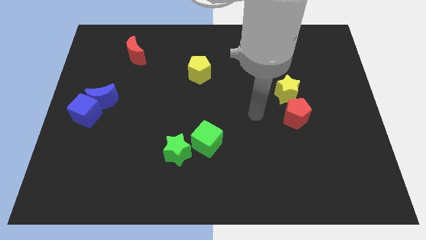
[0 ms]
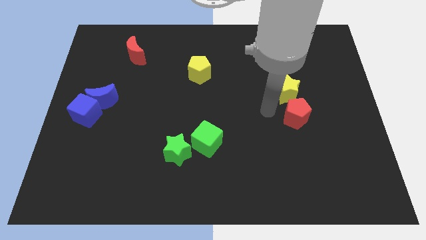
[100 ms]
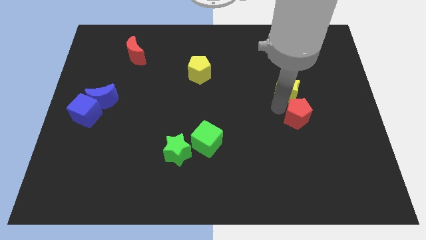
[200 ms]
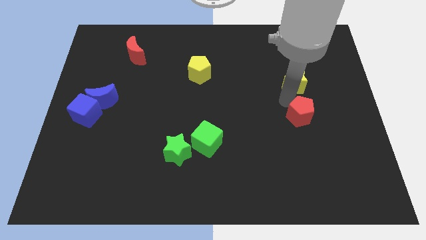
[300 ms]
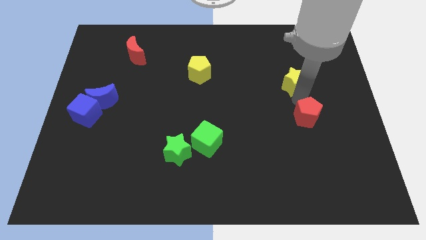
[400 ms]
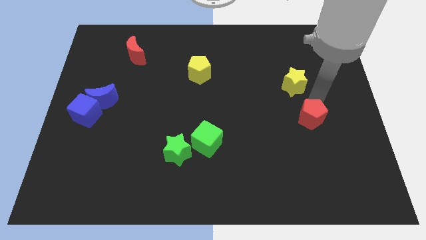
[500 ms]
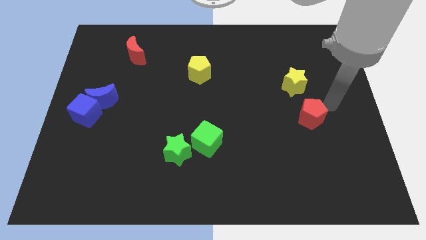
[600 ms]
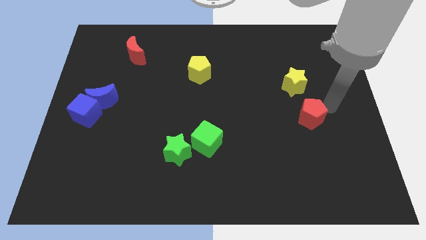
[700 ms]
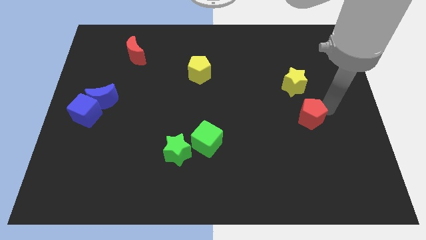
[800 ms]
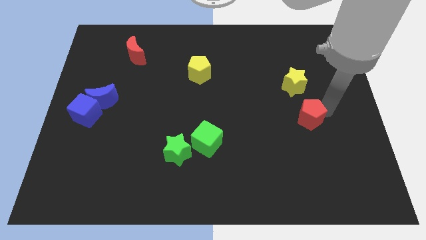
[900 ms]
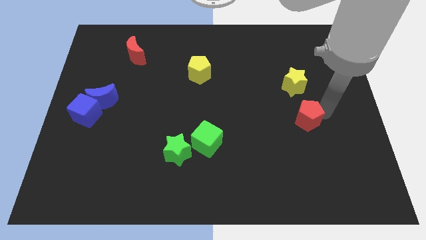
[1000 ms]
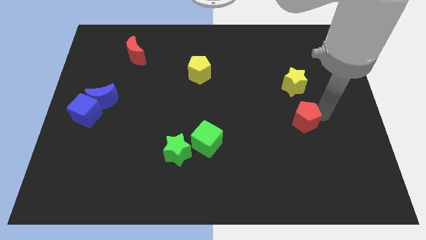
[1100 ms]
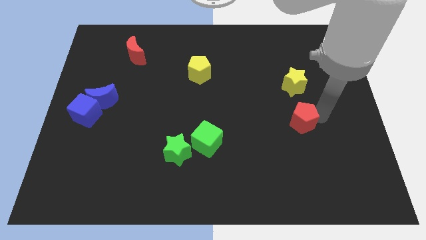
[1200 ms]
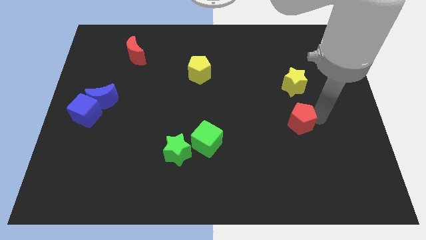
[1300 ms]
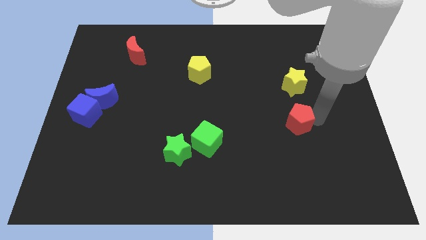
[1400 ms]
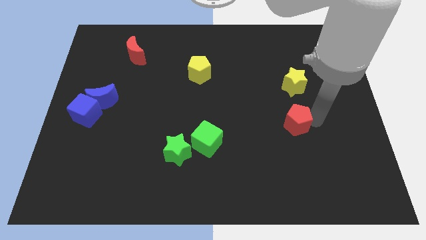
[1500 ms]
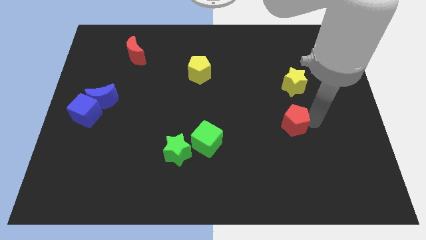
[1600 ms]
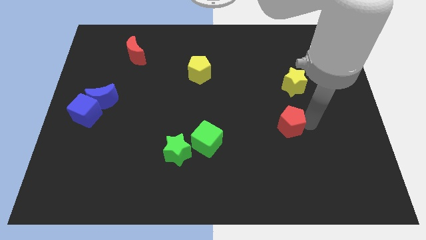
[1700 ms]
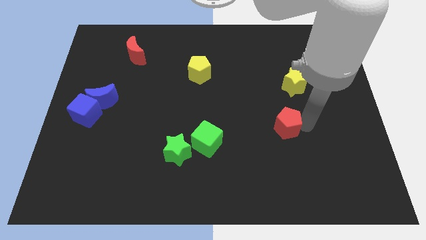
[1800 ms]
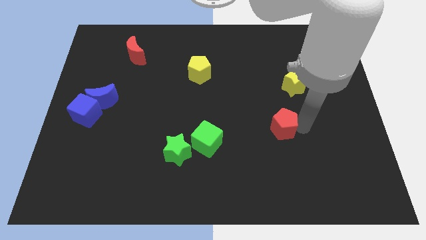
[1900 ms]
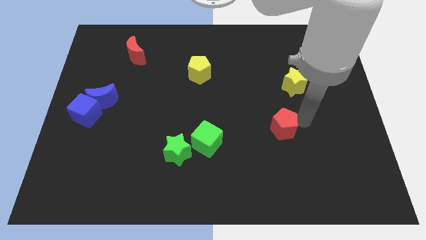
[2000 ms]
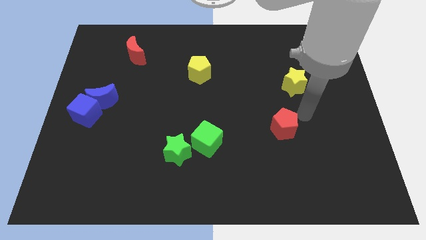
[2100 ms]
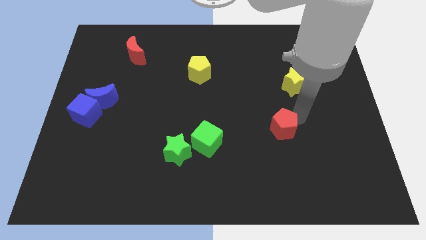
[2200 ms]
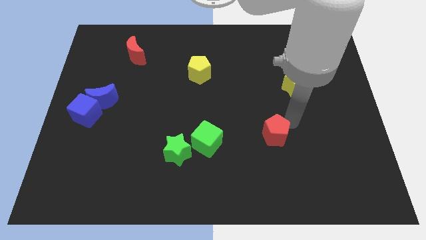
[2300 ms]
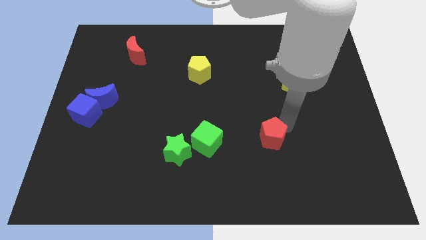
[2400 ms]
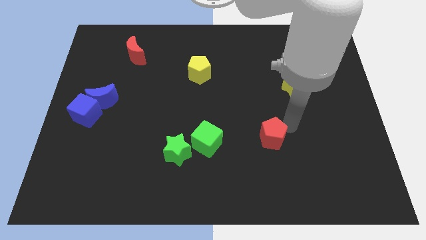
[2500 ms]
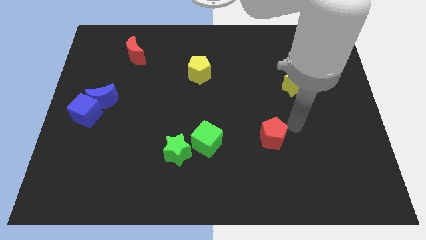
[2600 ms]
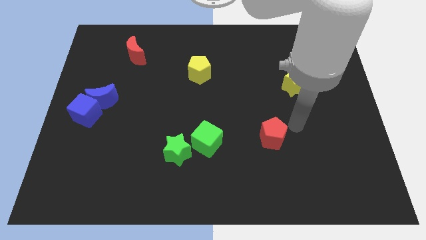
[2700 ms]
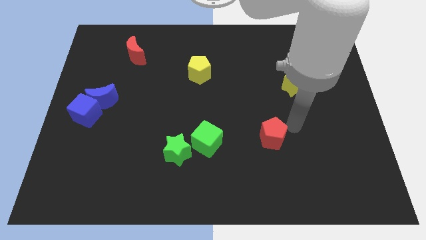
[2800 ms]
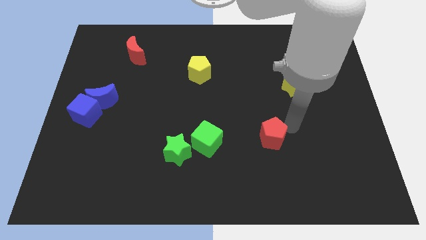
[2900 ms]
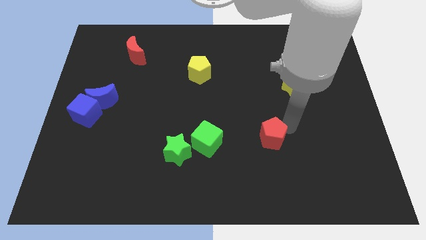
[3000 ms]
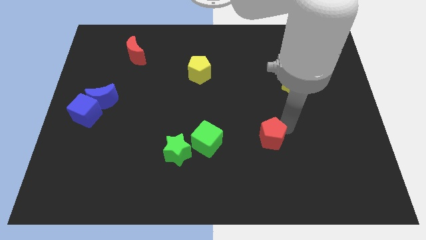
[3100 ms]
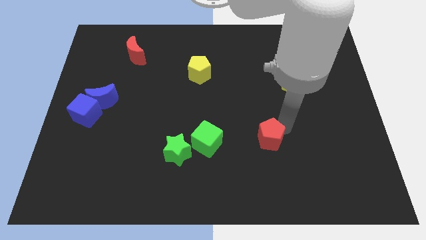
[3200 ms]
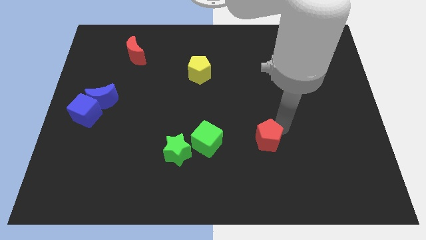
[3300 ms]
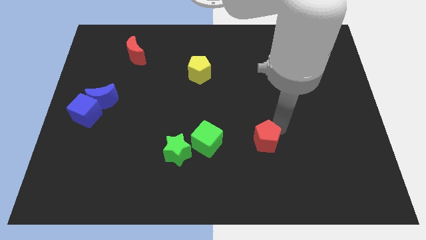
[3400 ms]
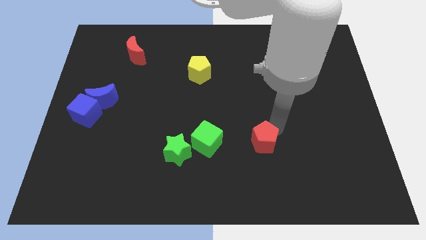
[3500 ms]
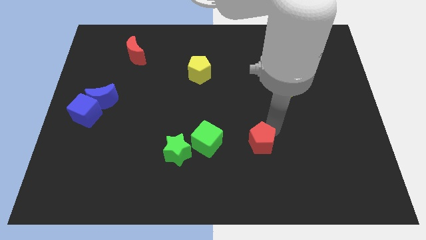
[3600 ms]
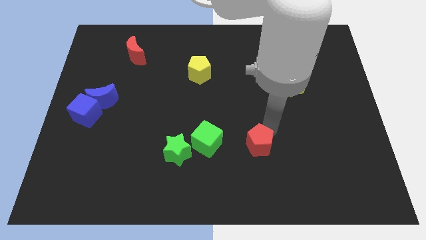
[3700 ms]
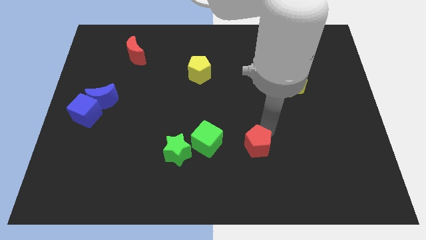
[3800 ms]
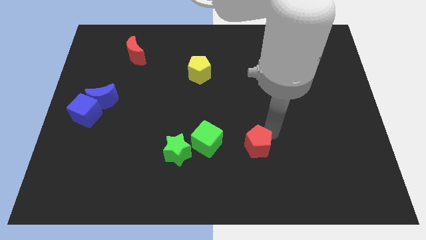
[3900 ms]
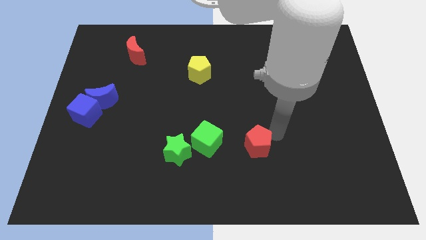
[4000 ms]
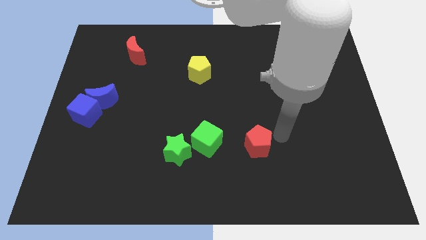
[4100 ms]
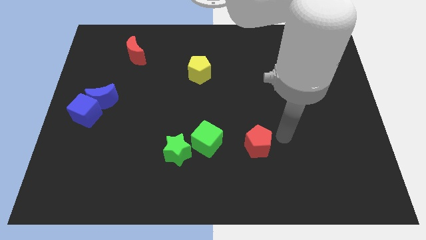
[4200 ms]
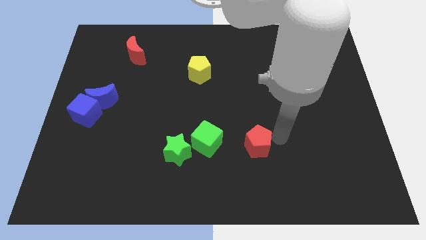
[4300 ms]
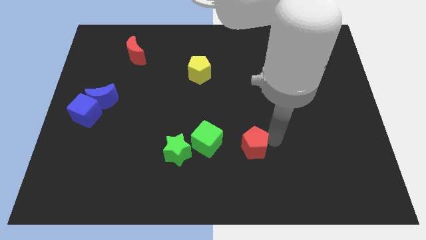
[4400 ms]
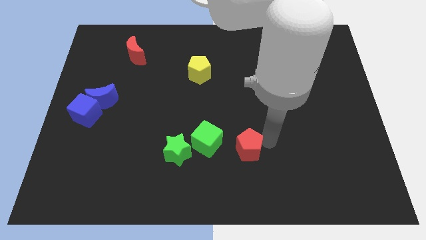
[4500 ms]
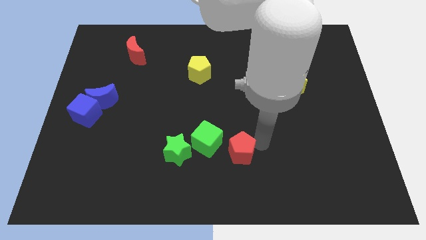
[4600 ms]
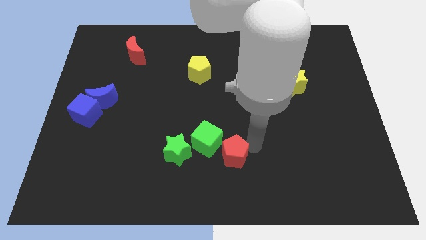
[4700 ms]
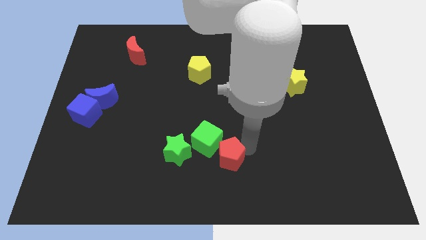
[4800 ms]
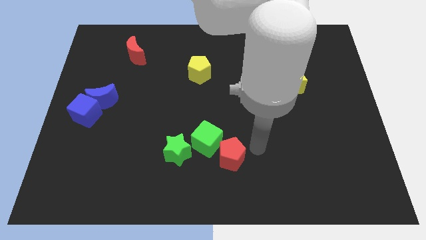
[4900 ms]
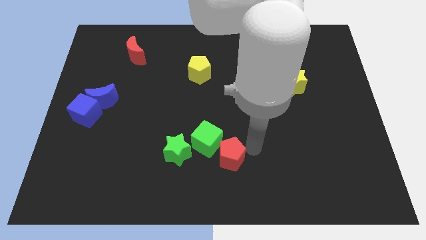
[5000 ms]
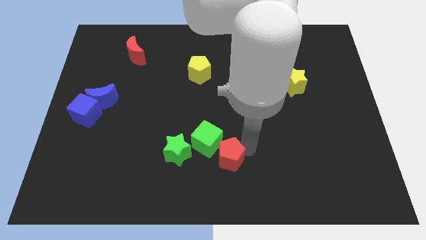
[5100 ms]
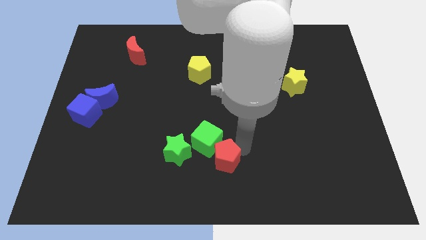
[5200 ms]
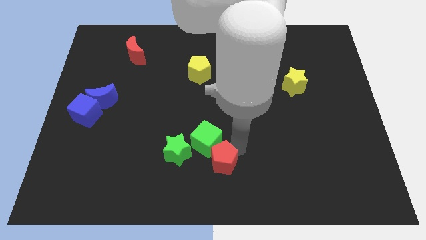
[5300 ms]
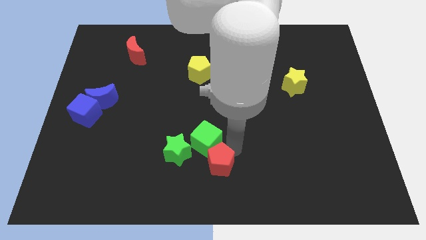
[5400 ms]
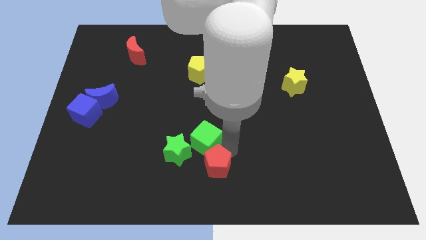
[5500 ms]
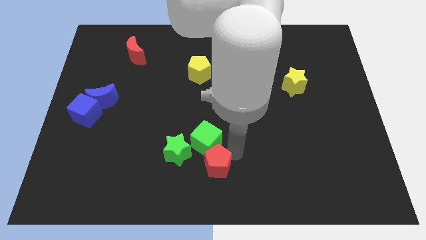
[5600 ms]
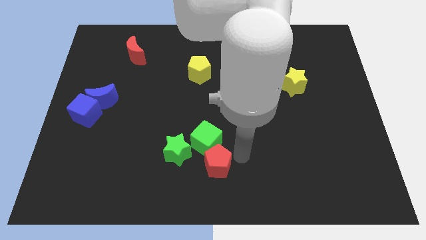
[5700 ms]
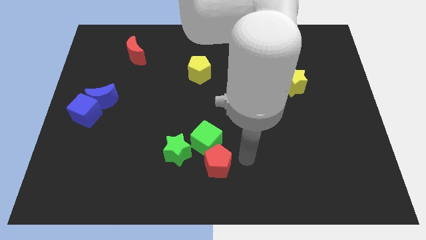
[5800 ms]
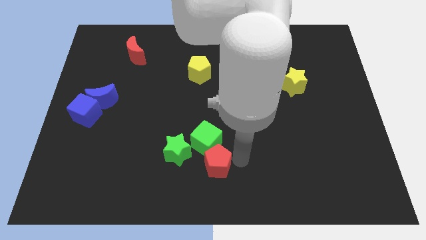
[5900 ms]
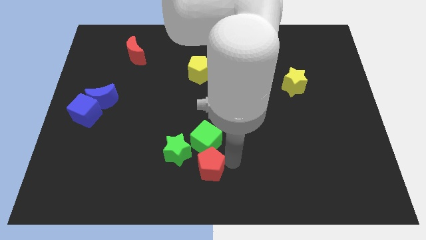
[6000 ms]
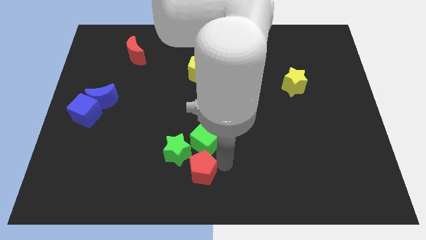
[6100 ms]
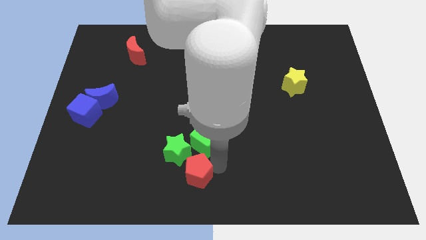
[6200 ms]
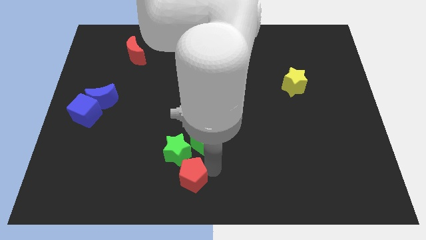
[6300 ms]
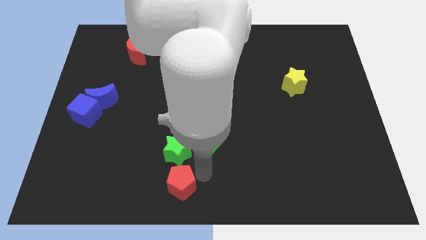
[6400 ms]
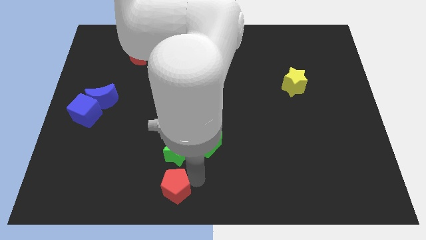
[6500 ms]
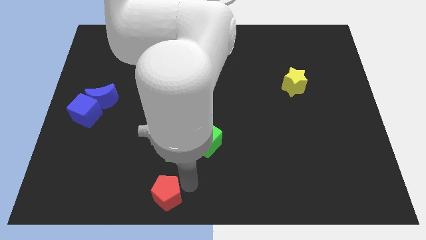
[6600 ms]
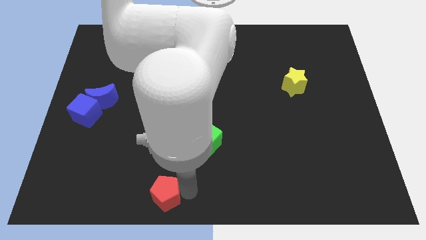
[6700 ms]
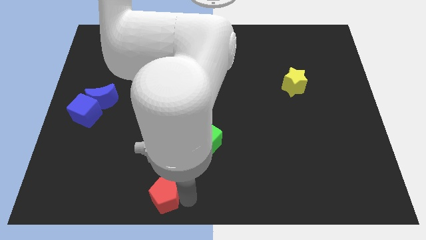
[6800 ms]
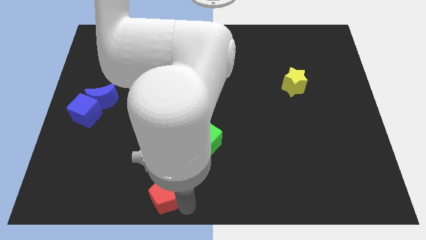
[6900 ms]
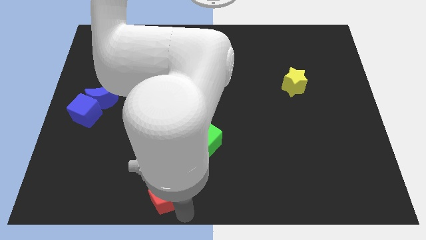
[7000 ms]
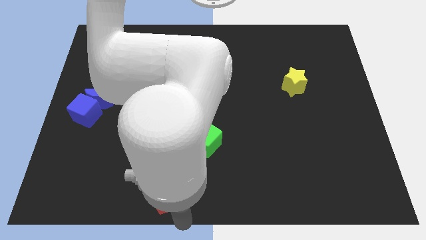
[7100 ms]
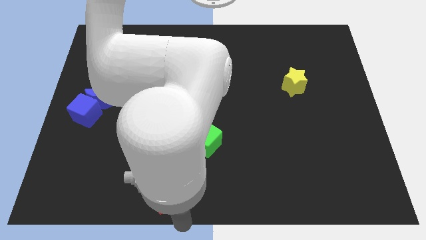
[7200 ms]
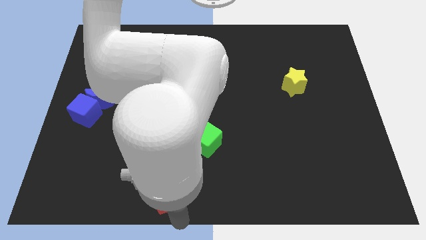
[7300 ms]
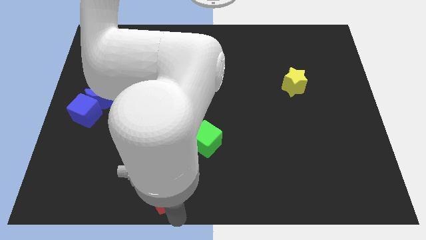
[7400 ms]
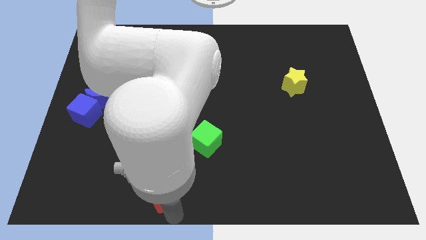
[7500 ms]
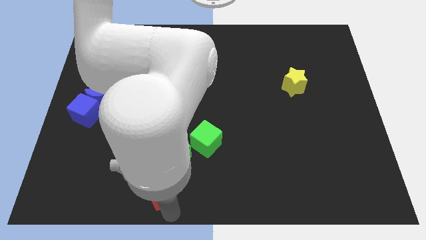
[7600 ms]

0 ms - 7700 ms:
move the red pentagon diagonally down and to the left of the green star

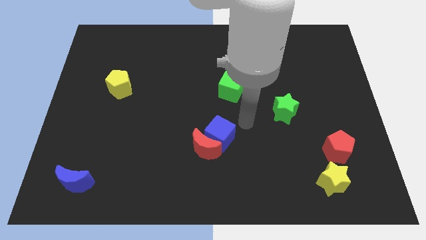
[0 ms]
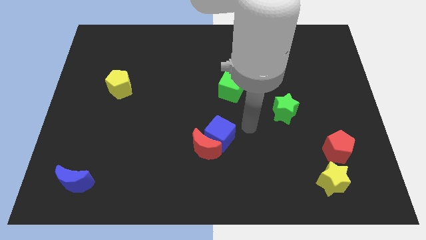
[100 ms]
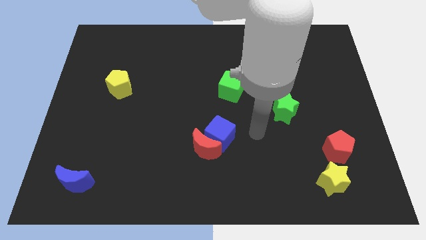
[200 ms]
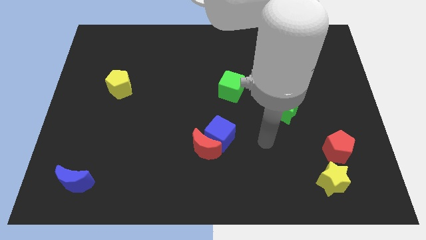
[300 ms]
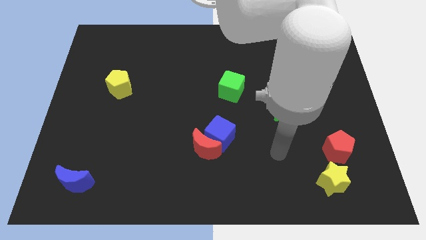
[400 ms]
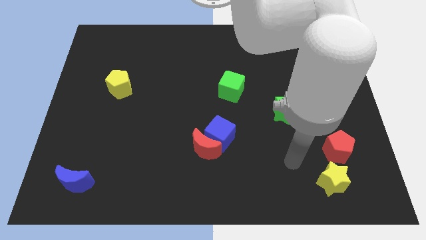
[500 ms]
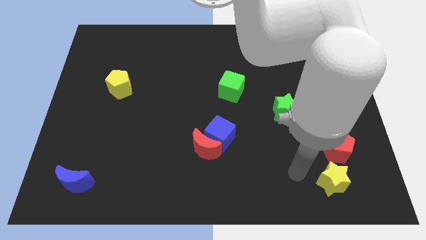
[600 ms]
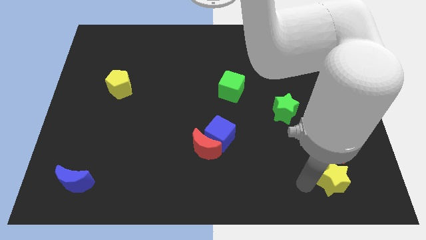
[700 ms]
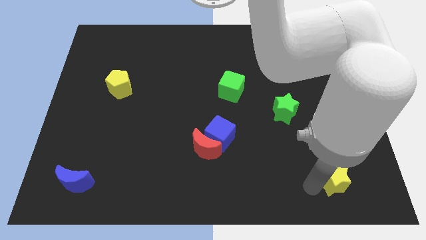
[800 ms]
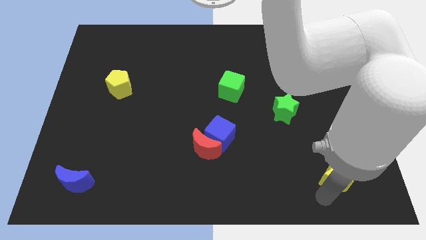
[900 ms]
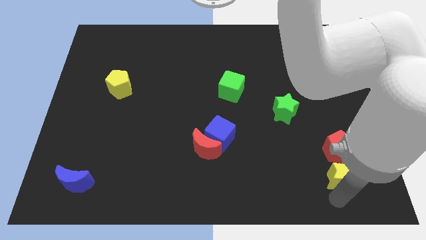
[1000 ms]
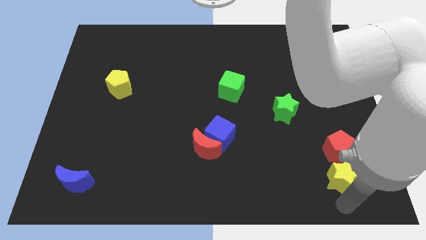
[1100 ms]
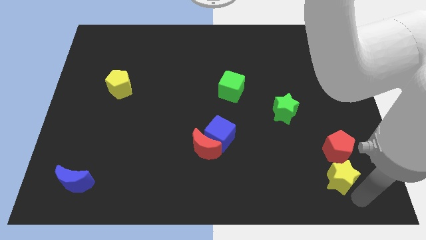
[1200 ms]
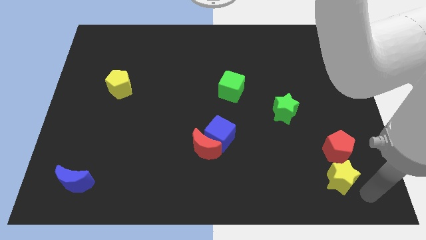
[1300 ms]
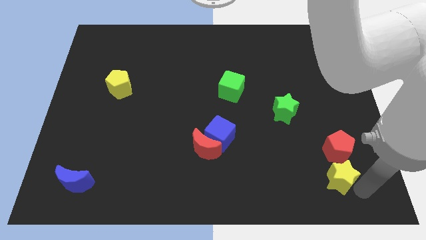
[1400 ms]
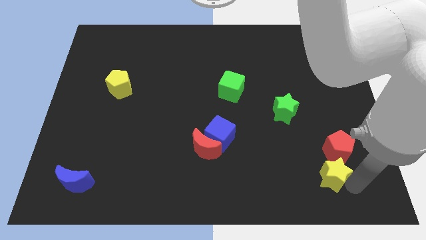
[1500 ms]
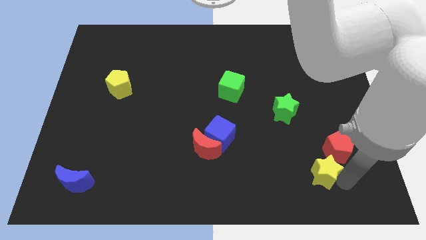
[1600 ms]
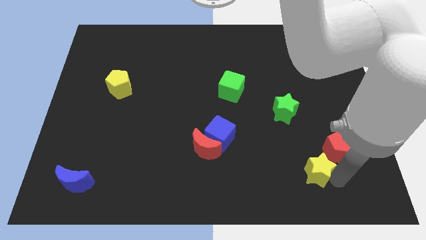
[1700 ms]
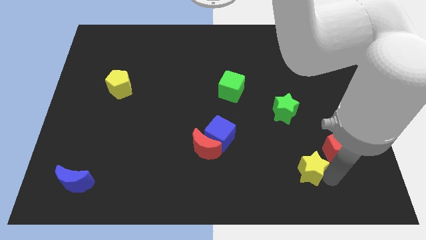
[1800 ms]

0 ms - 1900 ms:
put the yellow star left of the red pentagon
